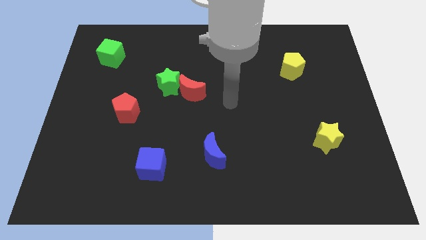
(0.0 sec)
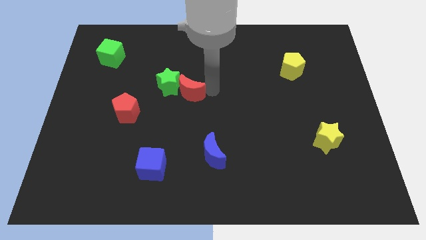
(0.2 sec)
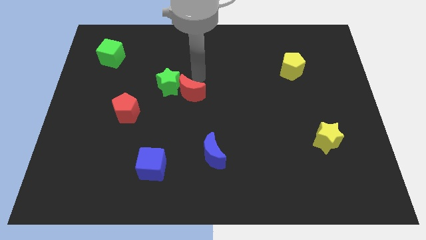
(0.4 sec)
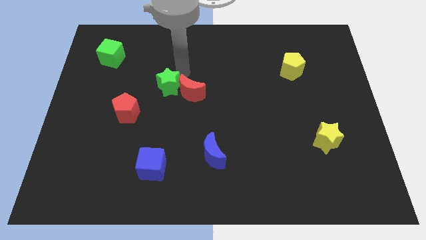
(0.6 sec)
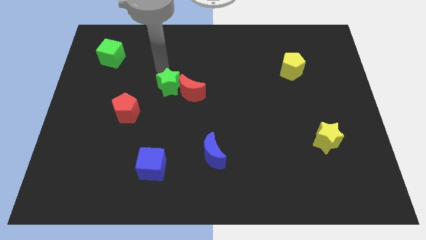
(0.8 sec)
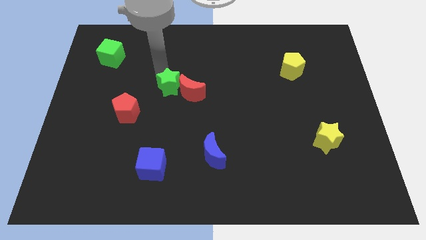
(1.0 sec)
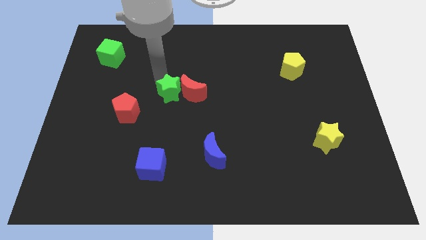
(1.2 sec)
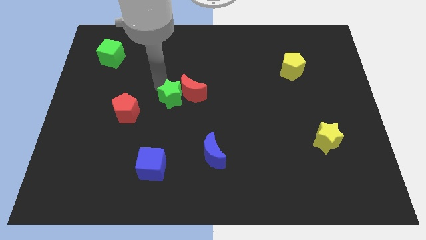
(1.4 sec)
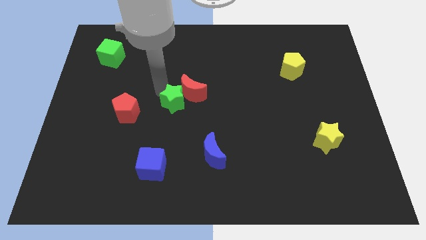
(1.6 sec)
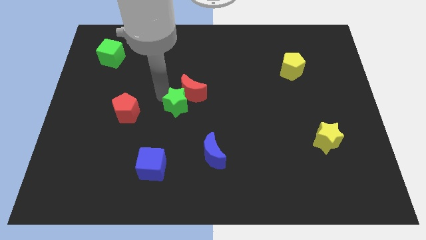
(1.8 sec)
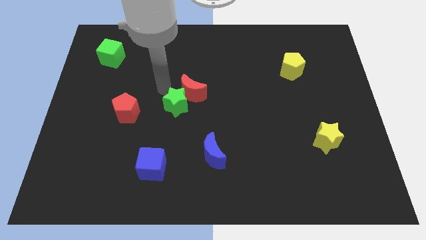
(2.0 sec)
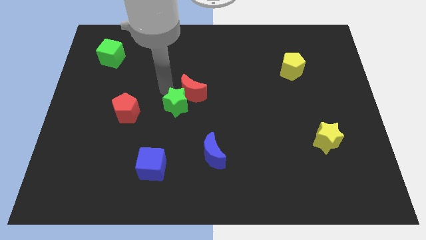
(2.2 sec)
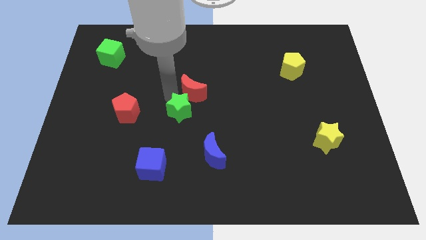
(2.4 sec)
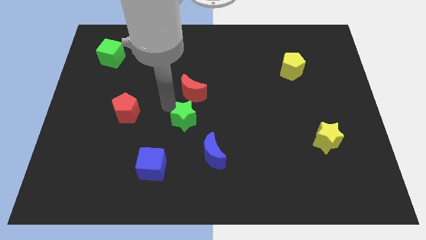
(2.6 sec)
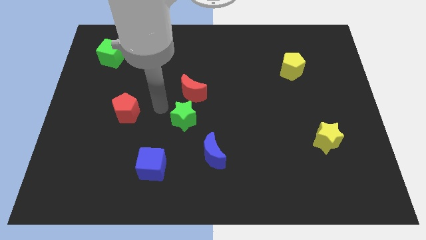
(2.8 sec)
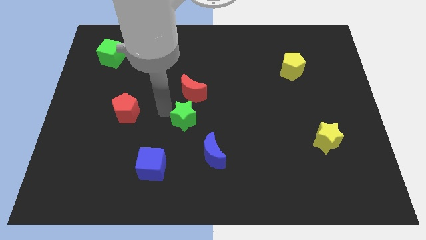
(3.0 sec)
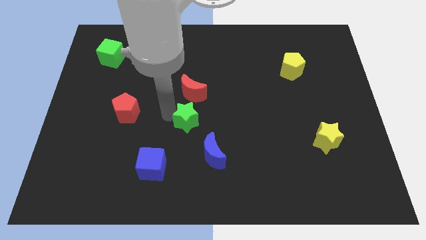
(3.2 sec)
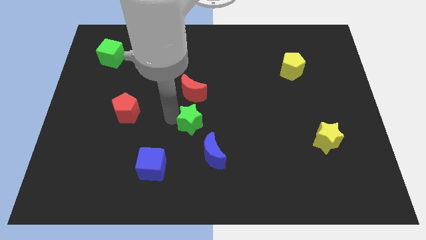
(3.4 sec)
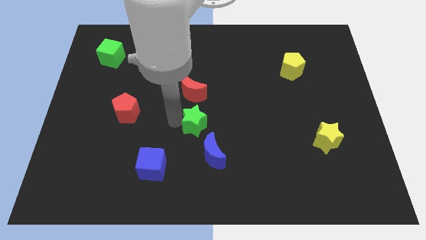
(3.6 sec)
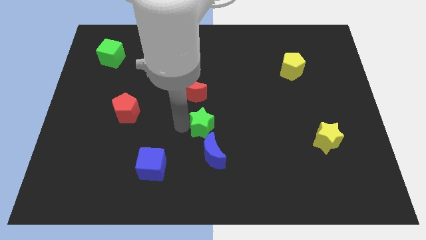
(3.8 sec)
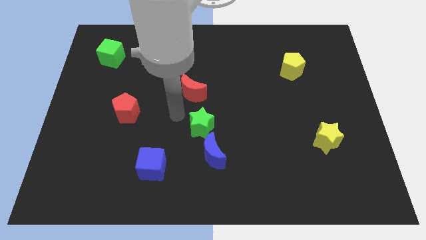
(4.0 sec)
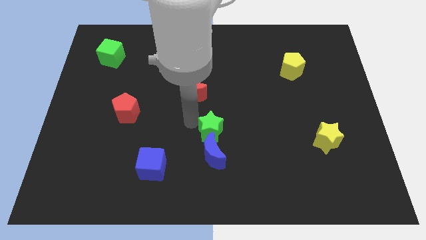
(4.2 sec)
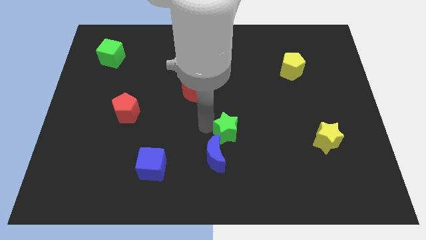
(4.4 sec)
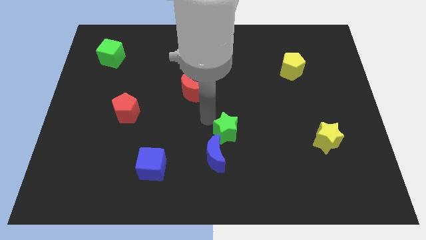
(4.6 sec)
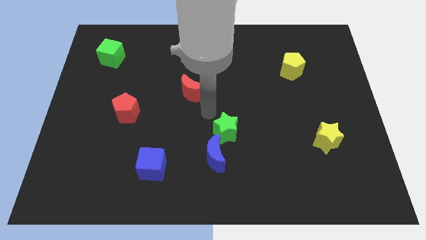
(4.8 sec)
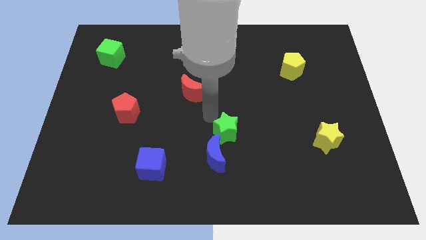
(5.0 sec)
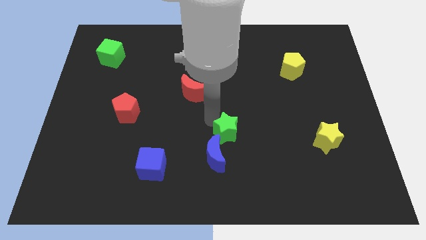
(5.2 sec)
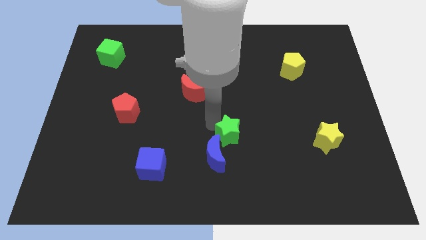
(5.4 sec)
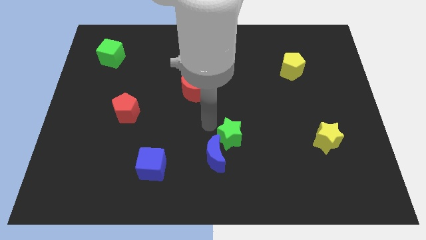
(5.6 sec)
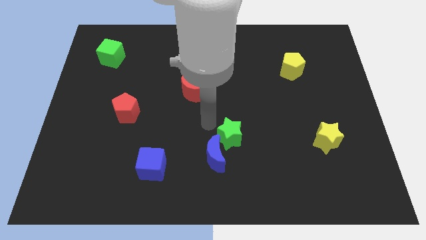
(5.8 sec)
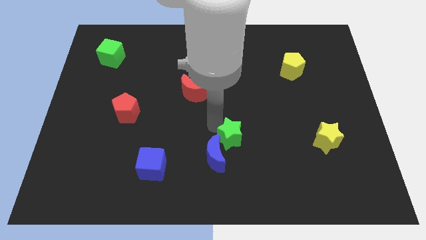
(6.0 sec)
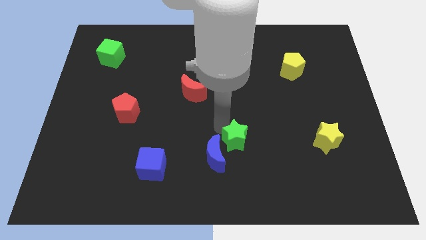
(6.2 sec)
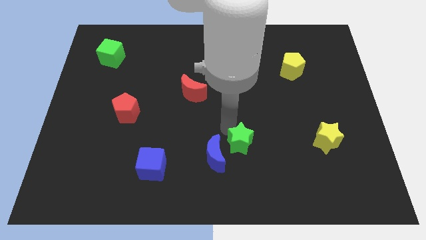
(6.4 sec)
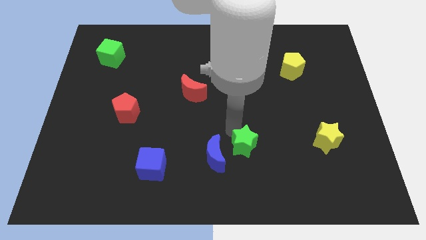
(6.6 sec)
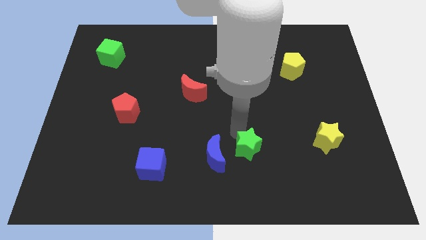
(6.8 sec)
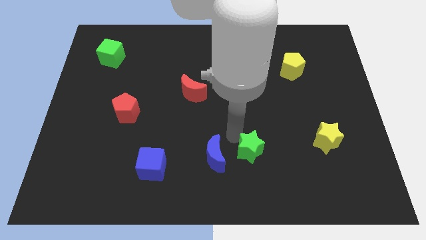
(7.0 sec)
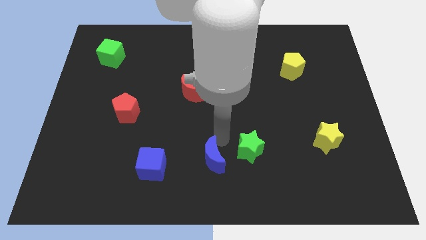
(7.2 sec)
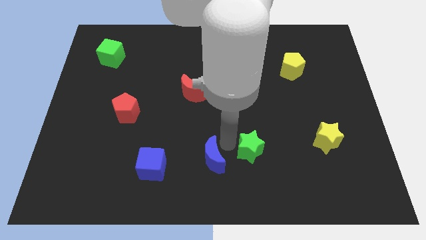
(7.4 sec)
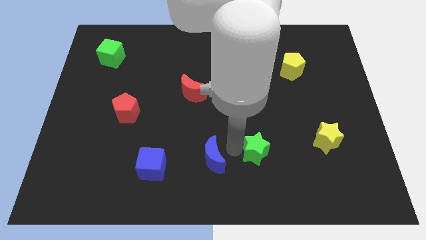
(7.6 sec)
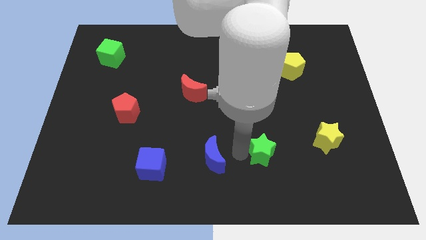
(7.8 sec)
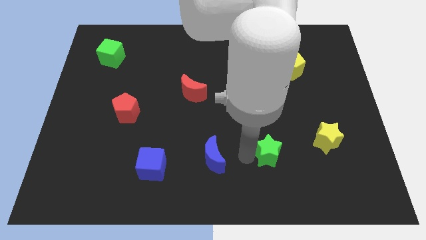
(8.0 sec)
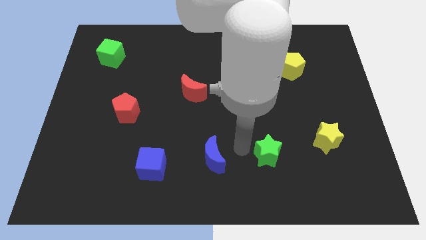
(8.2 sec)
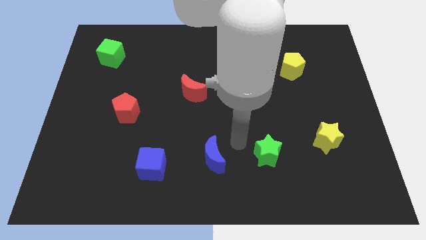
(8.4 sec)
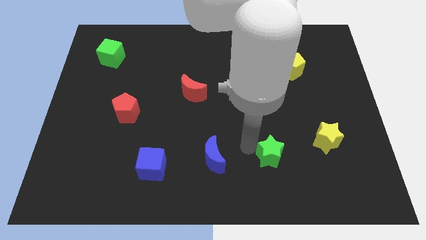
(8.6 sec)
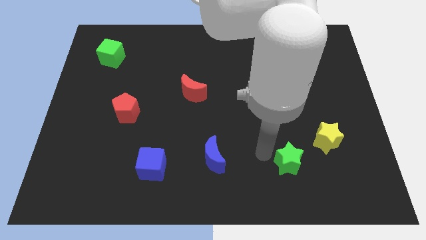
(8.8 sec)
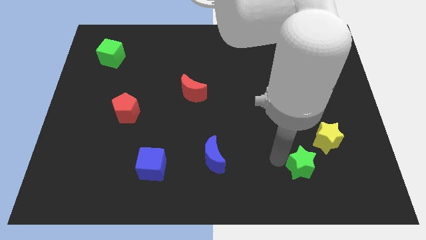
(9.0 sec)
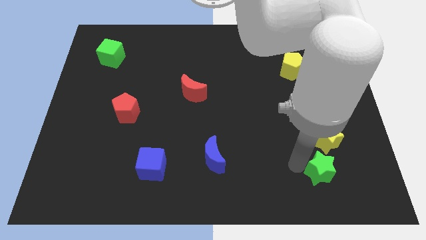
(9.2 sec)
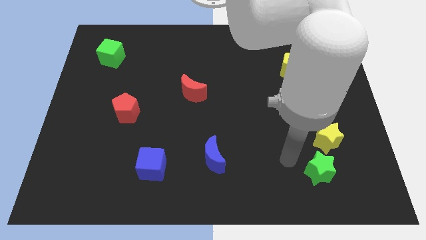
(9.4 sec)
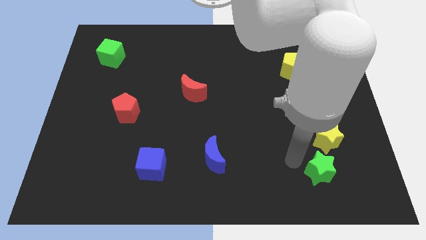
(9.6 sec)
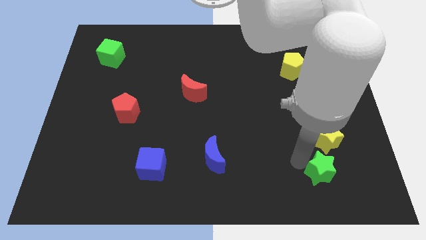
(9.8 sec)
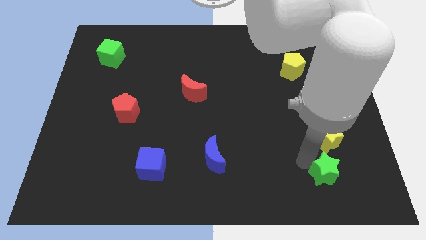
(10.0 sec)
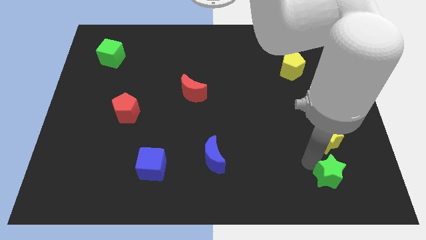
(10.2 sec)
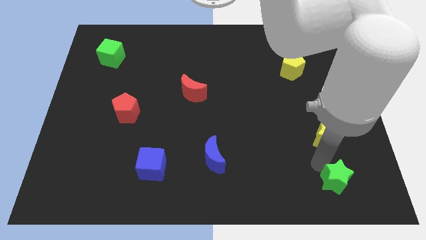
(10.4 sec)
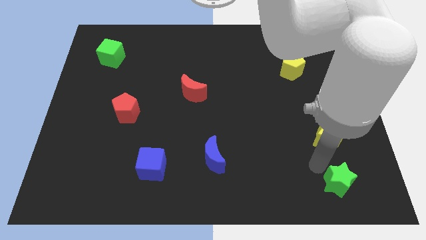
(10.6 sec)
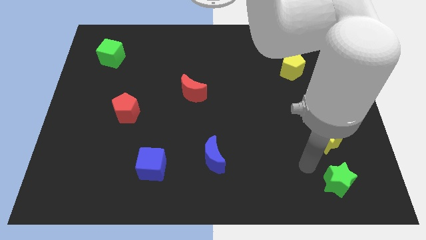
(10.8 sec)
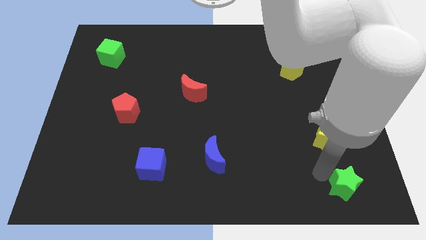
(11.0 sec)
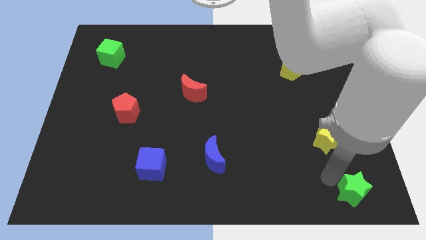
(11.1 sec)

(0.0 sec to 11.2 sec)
move the green star to the bottom right

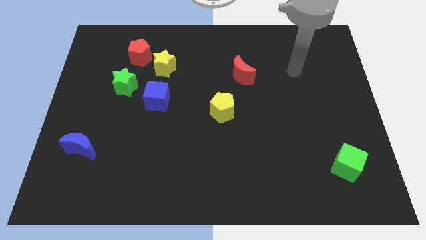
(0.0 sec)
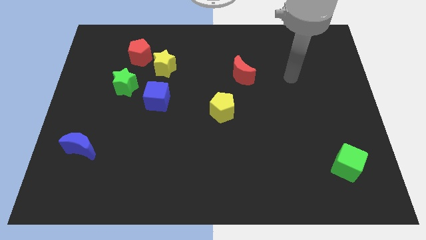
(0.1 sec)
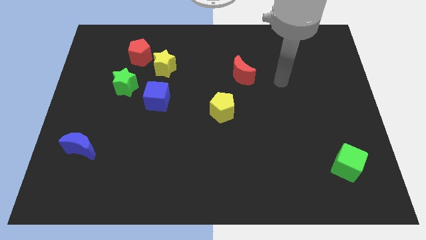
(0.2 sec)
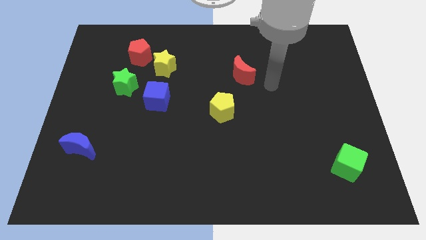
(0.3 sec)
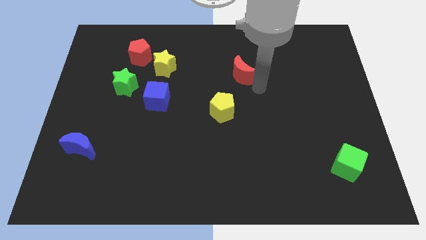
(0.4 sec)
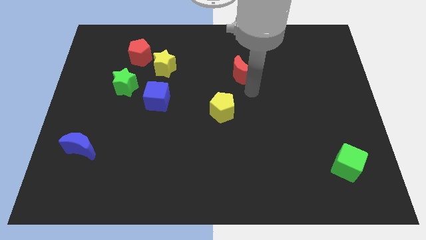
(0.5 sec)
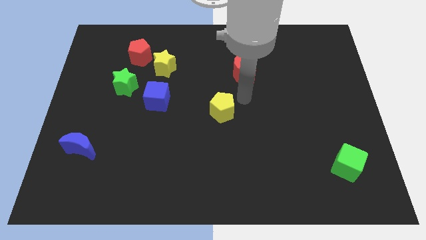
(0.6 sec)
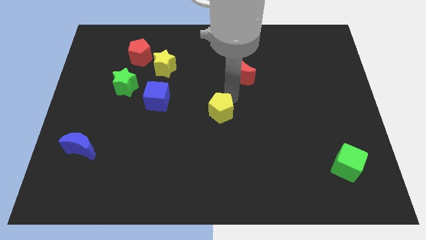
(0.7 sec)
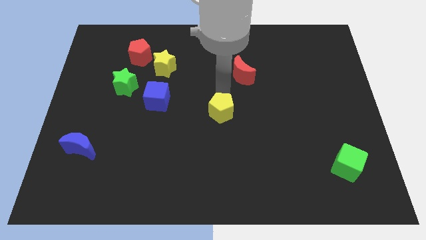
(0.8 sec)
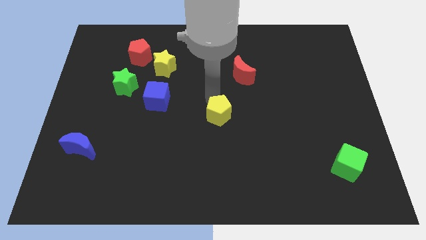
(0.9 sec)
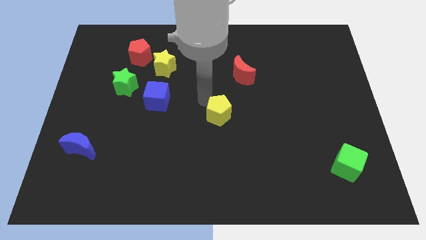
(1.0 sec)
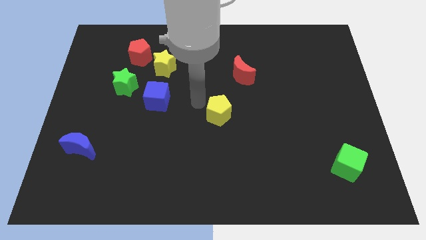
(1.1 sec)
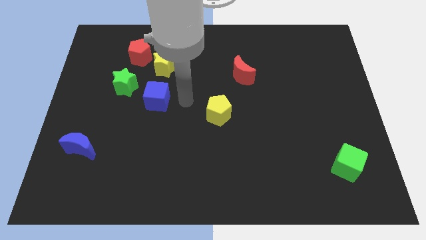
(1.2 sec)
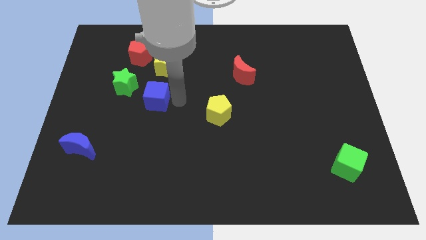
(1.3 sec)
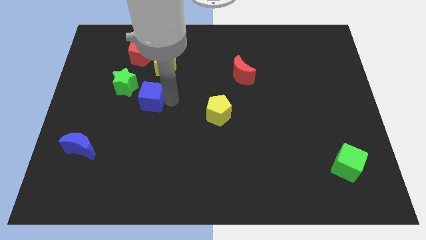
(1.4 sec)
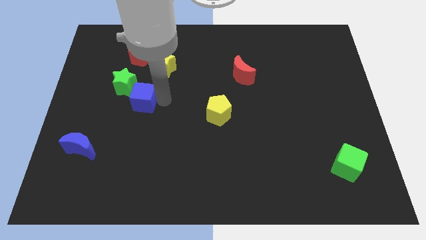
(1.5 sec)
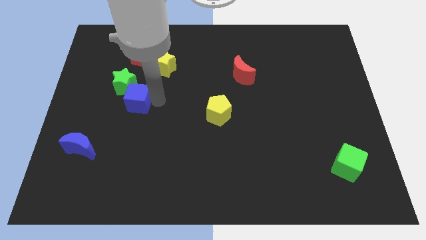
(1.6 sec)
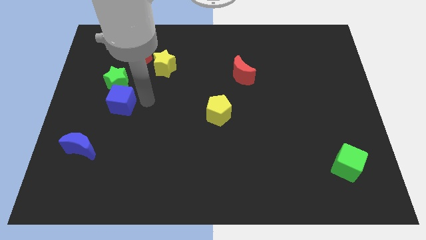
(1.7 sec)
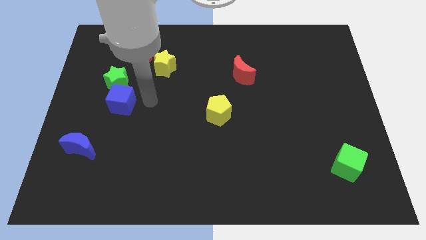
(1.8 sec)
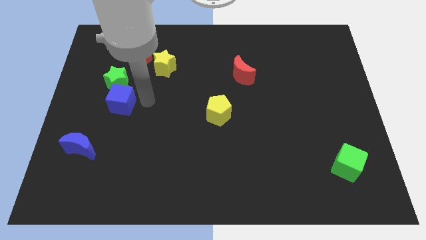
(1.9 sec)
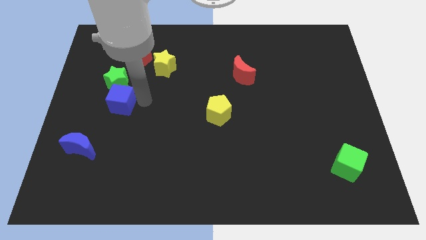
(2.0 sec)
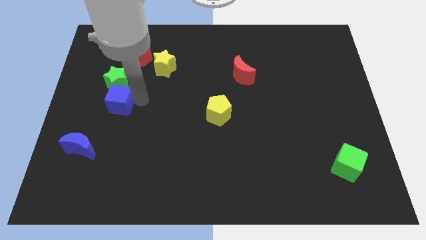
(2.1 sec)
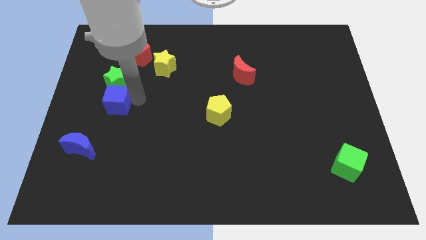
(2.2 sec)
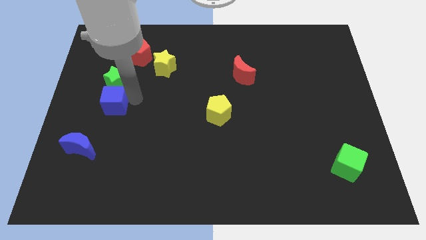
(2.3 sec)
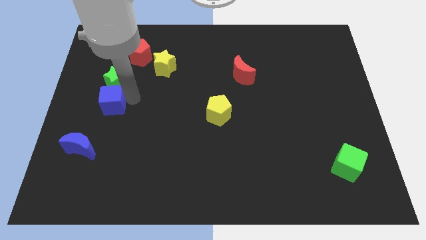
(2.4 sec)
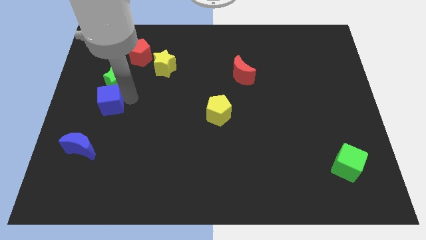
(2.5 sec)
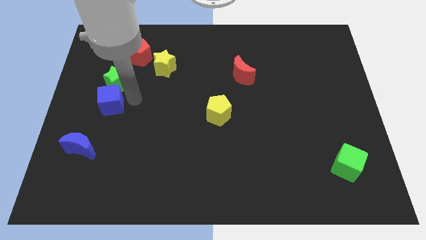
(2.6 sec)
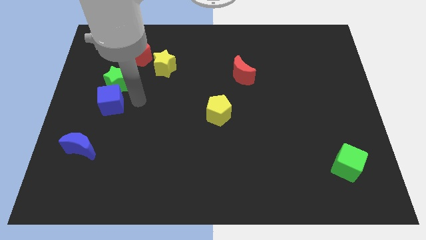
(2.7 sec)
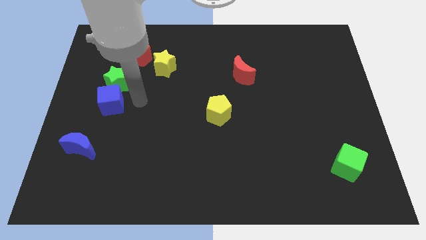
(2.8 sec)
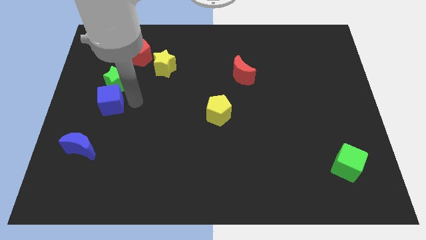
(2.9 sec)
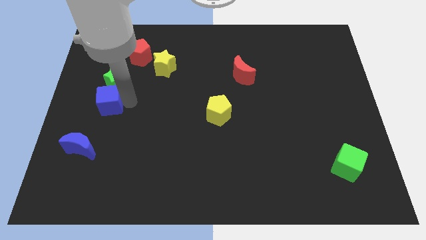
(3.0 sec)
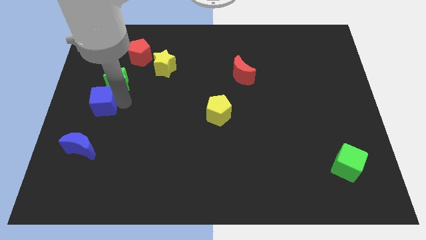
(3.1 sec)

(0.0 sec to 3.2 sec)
slide the blue cube to the center left
